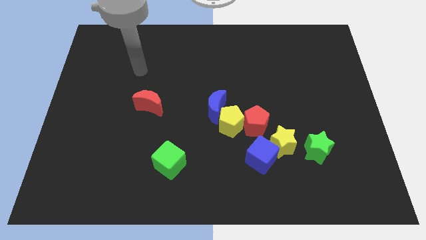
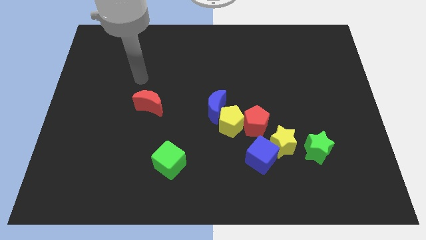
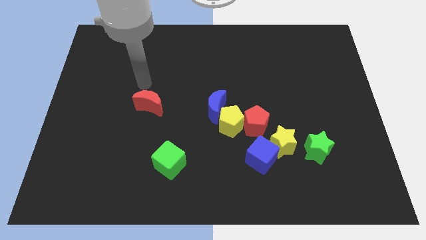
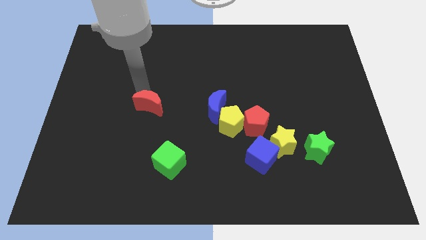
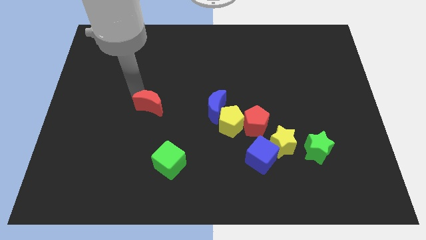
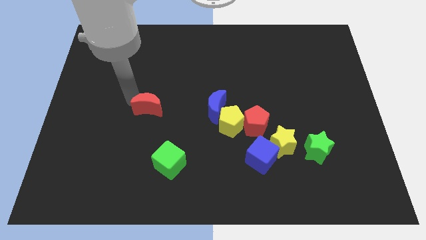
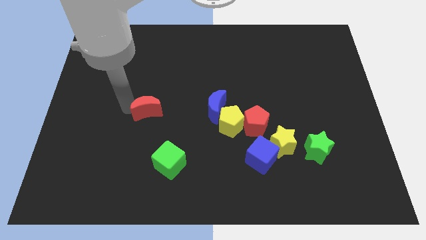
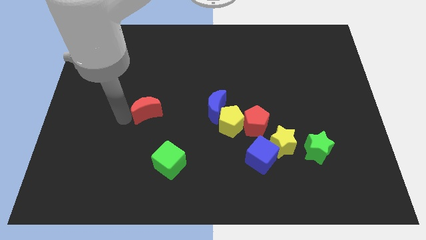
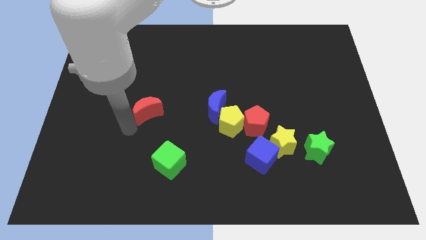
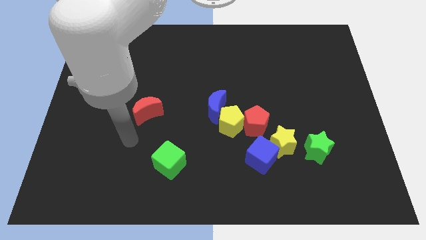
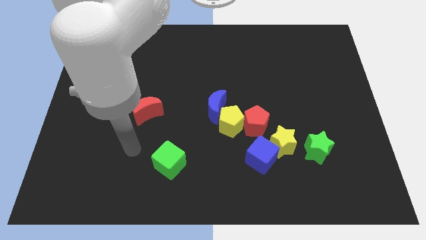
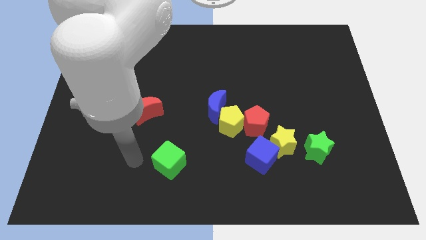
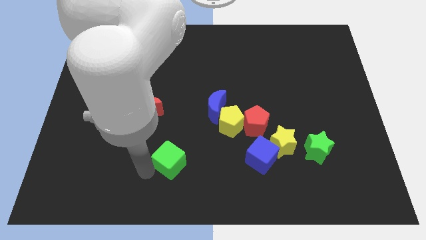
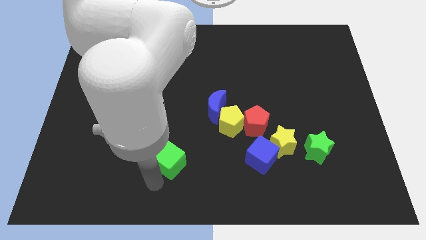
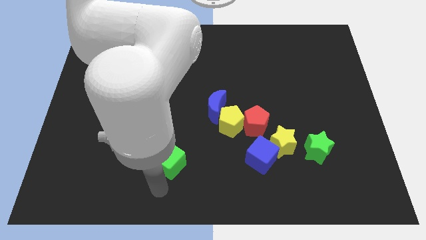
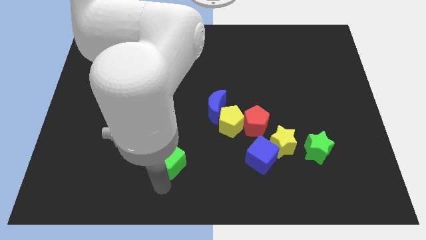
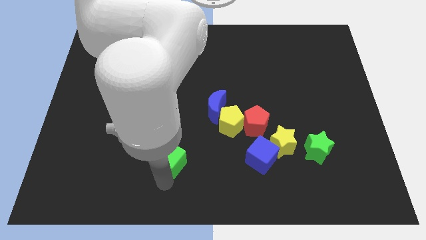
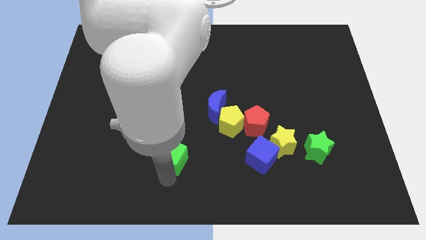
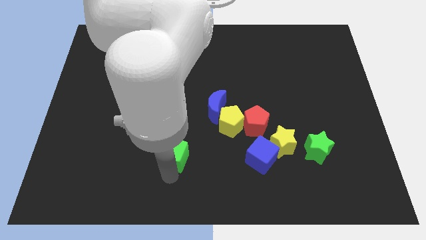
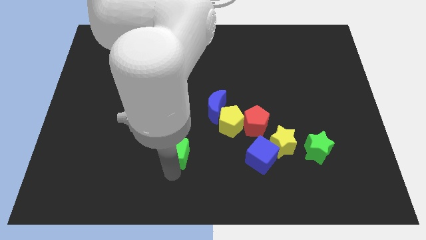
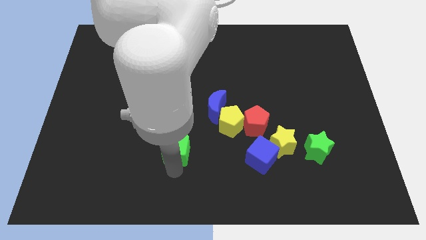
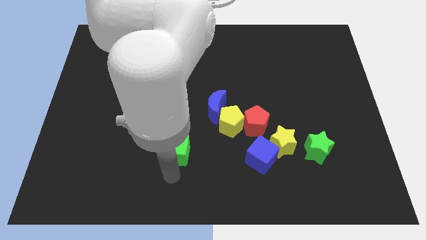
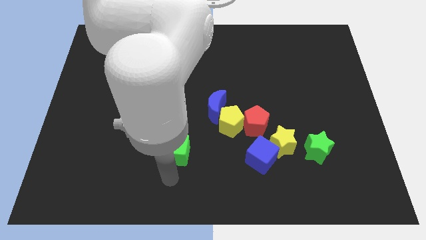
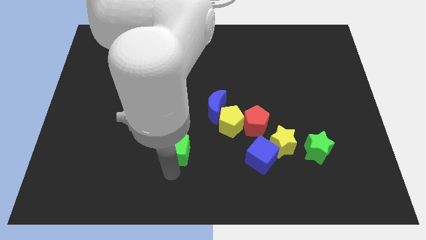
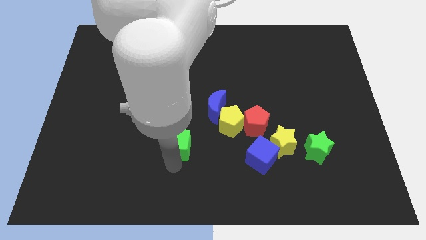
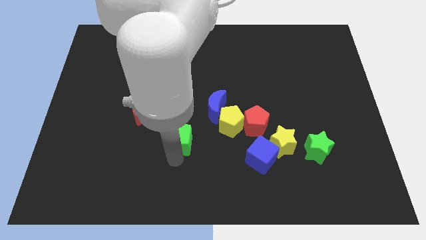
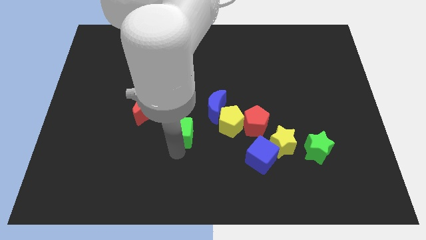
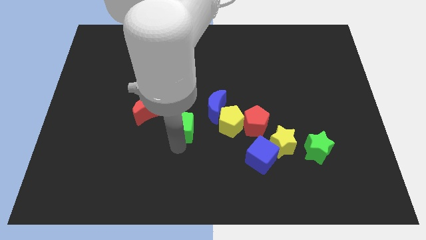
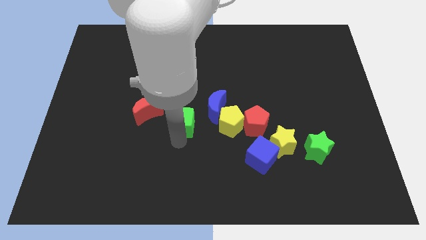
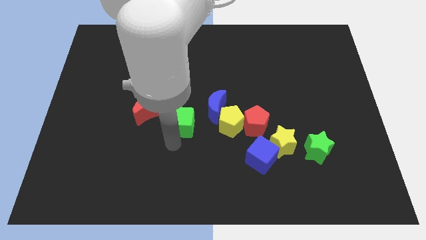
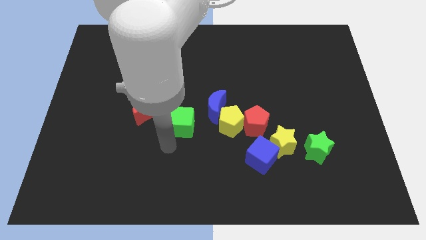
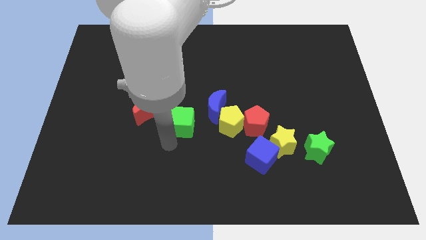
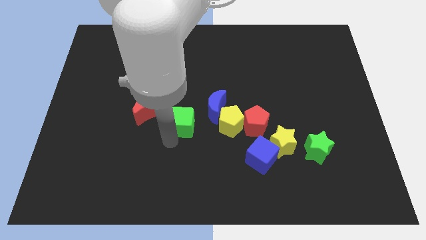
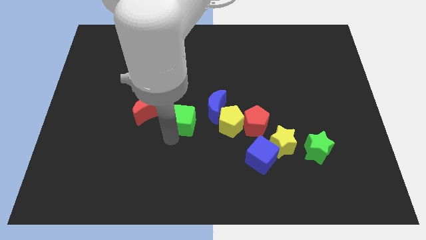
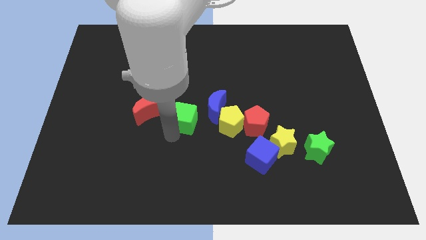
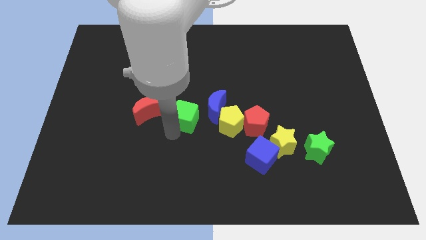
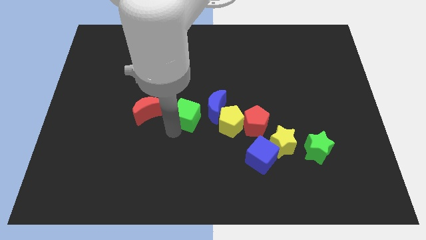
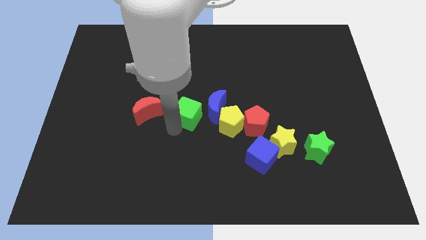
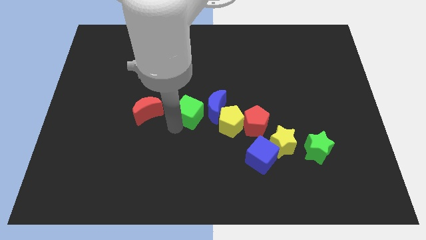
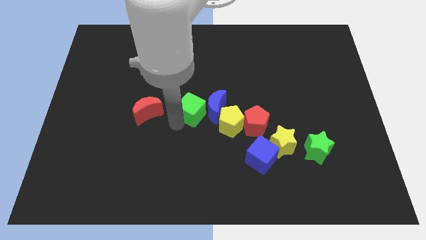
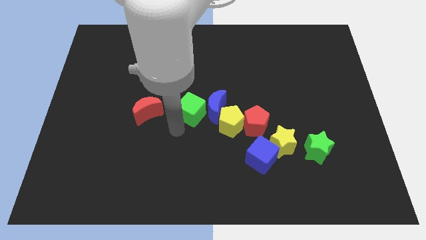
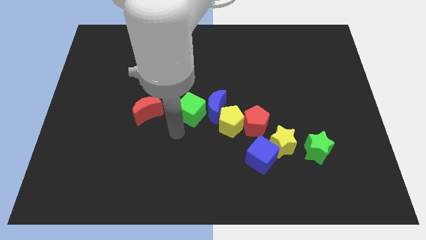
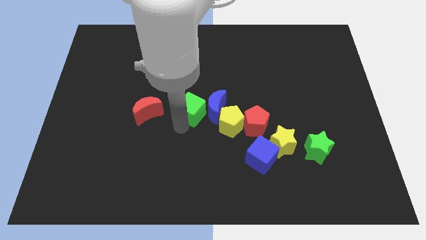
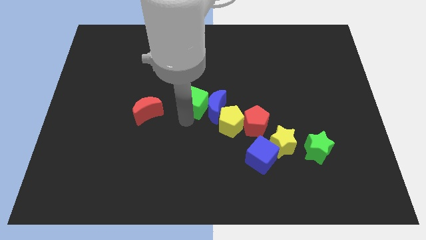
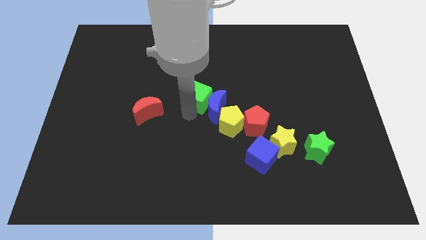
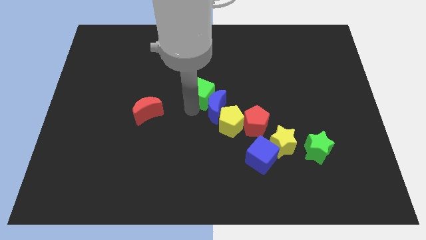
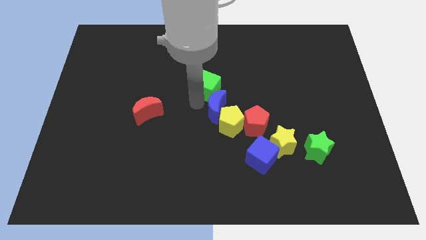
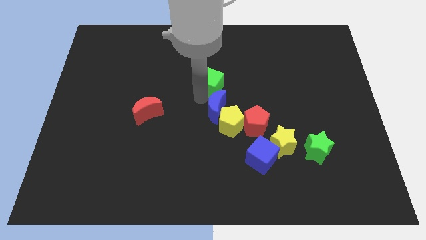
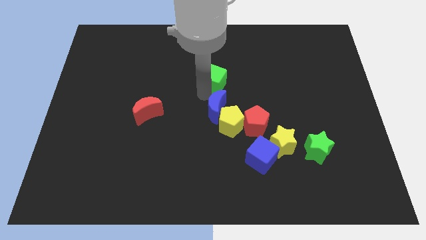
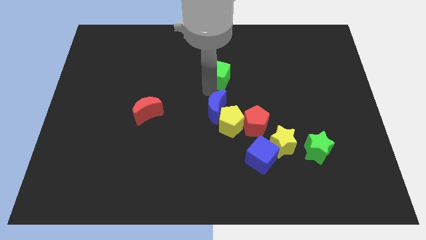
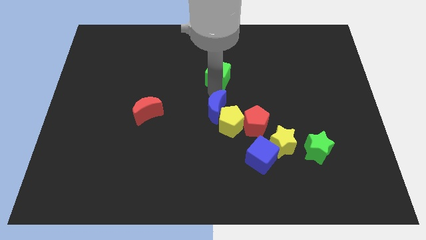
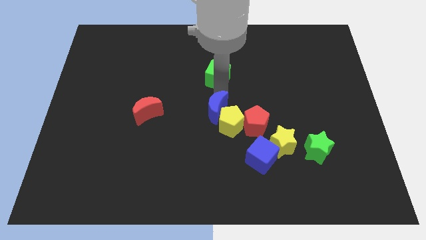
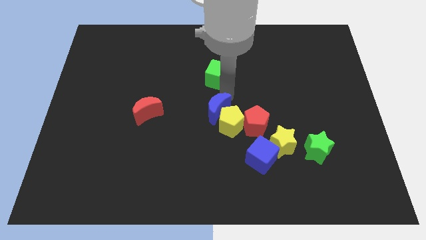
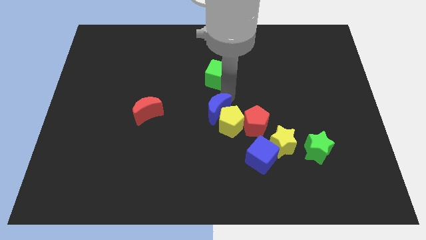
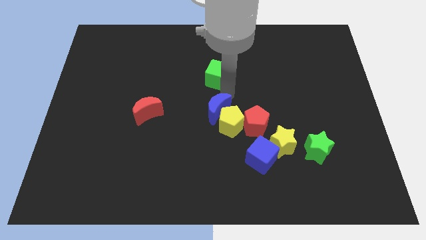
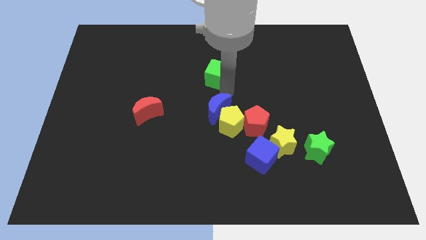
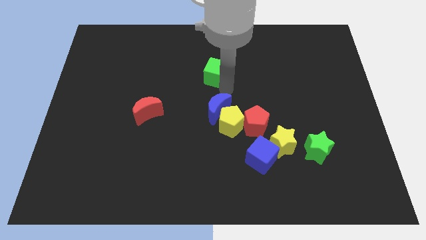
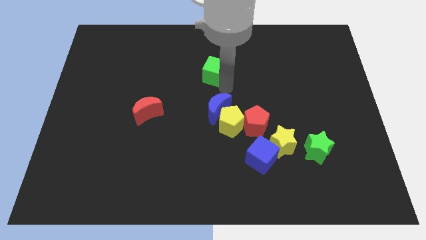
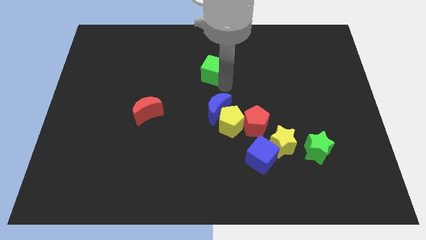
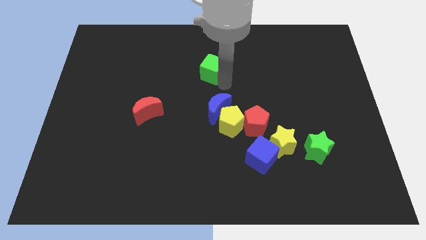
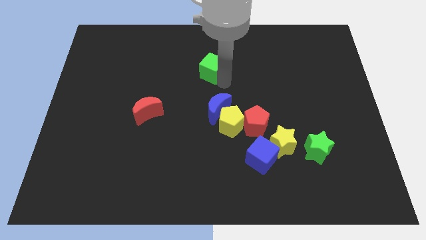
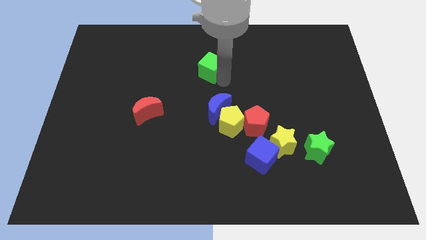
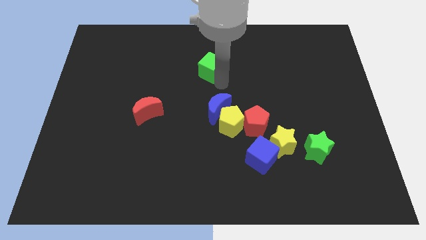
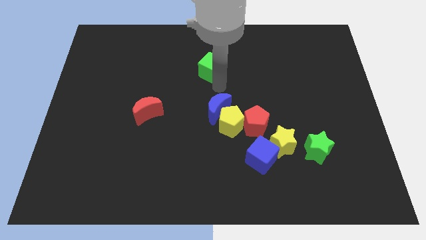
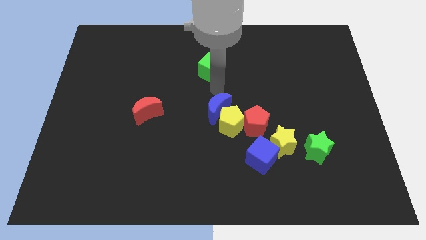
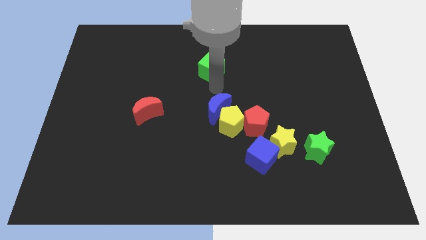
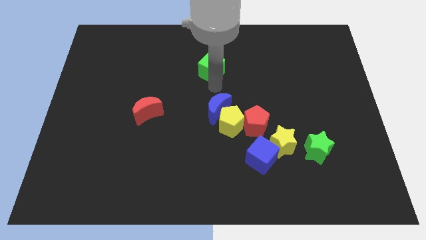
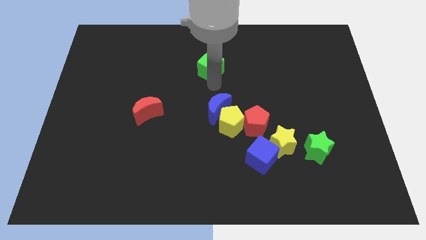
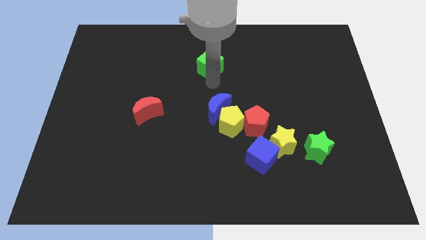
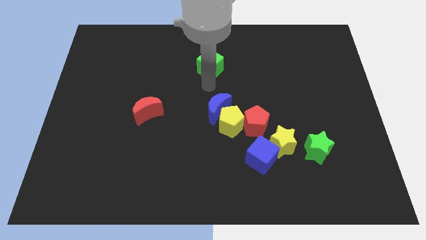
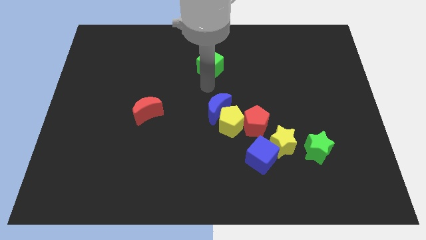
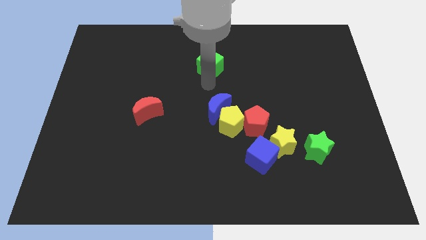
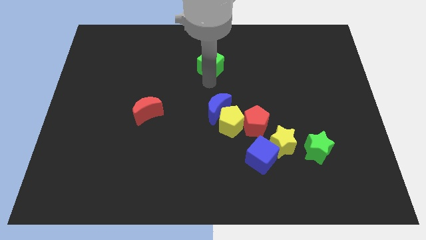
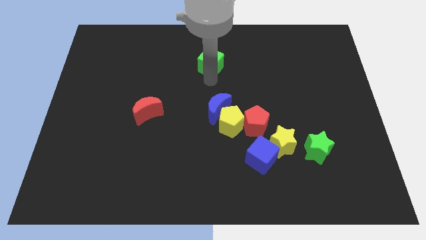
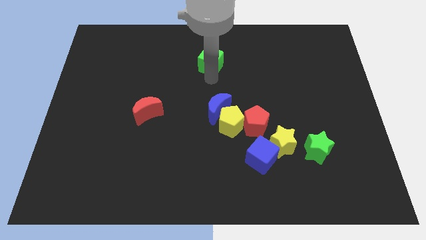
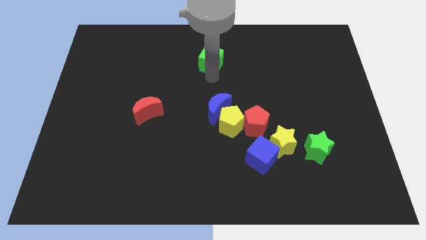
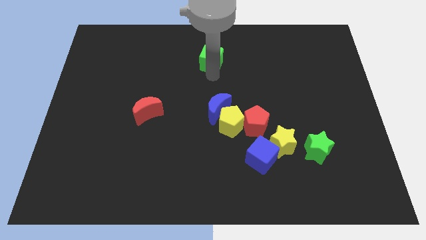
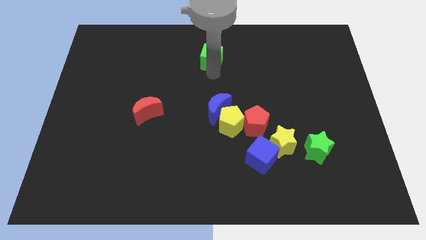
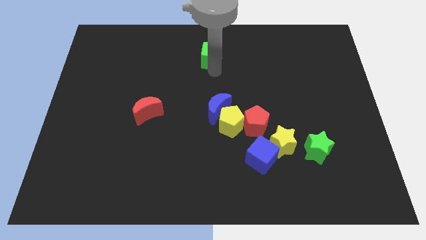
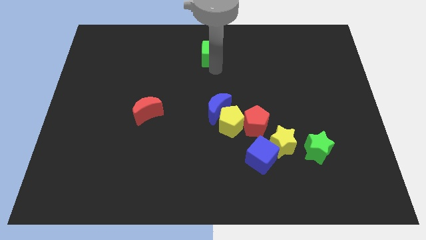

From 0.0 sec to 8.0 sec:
put the green cube to the top side

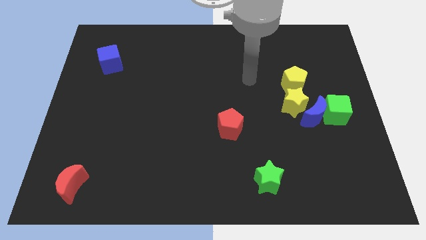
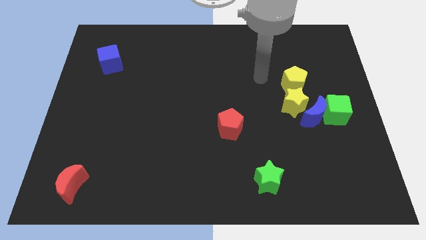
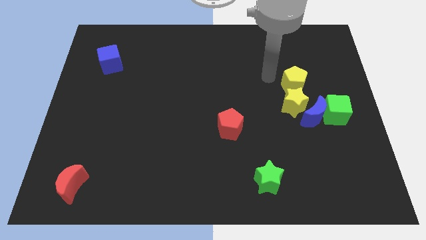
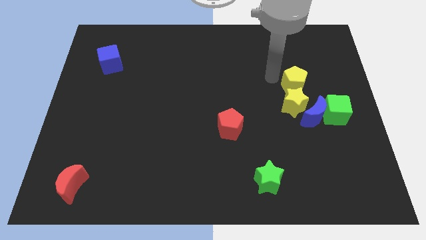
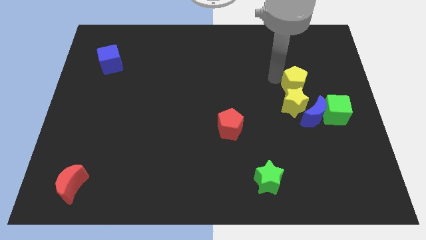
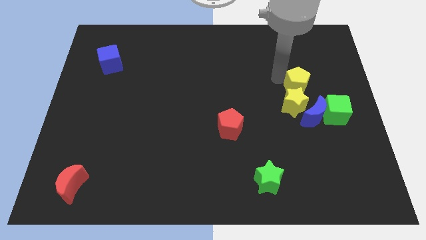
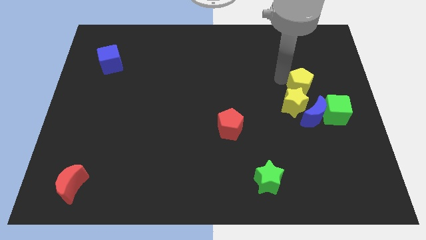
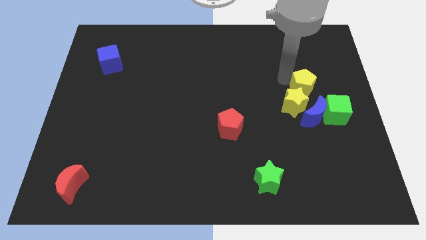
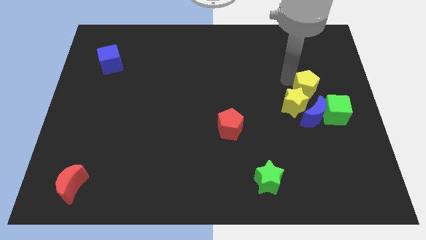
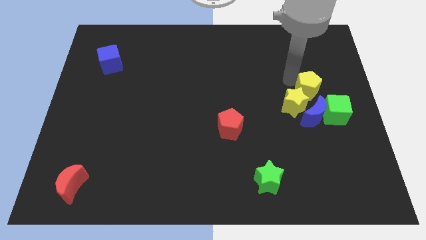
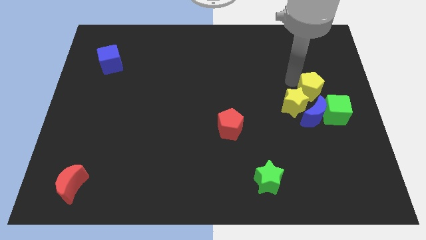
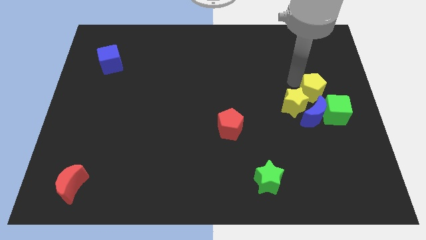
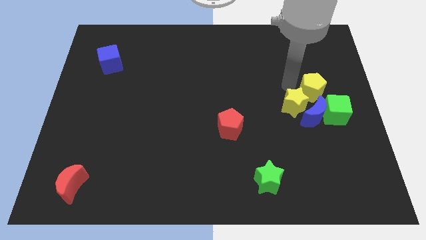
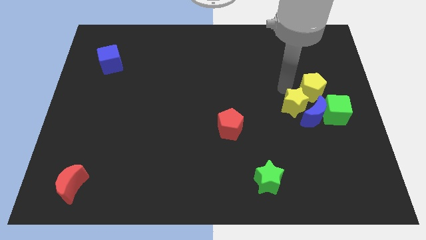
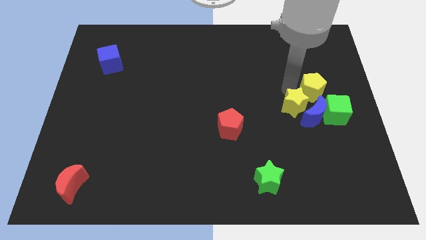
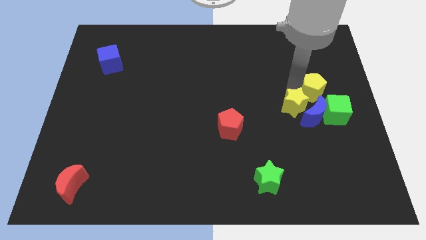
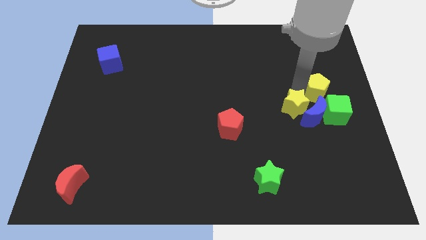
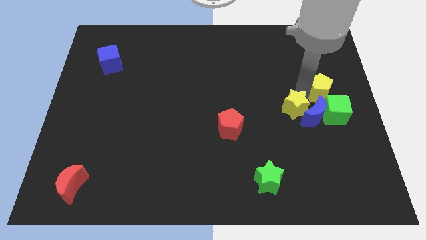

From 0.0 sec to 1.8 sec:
push the yellow pentagon to the center right
